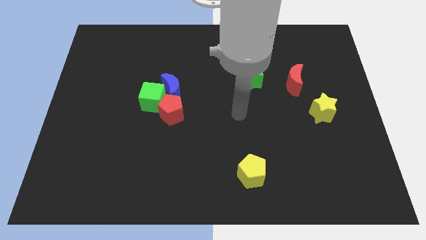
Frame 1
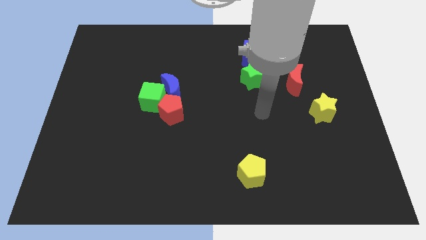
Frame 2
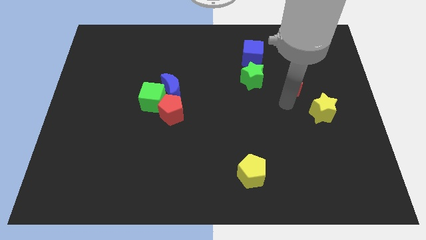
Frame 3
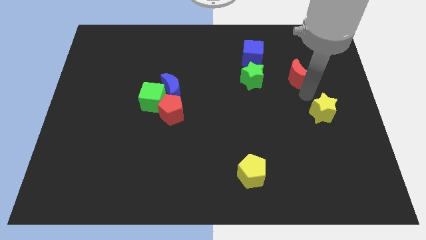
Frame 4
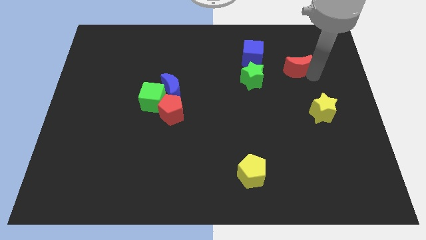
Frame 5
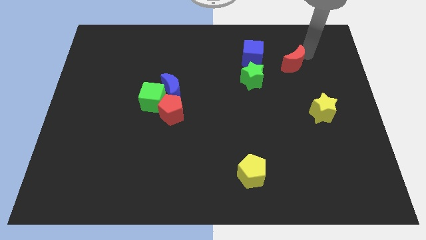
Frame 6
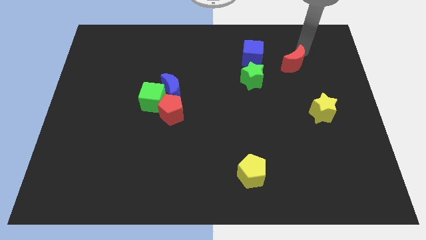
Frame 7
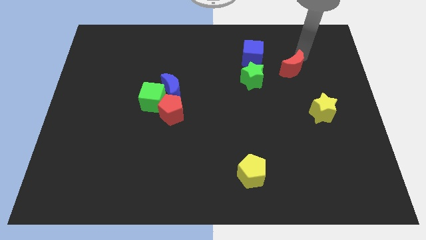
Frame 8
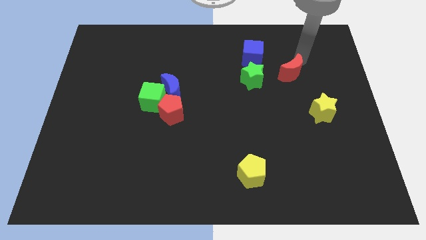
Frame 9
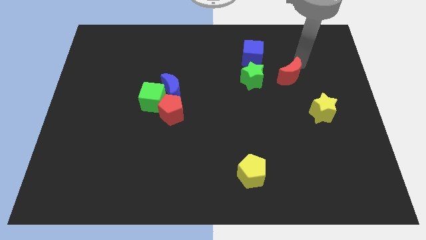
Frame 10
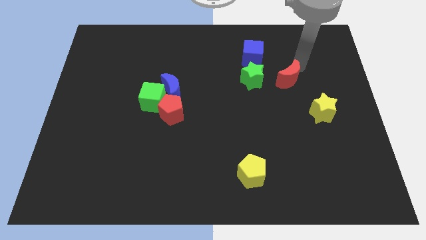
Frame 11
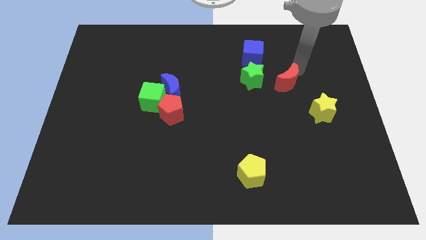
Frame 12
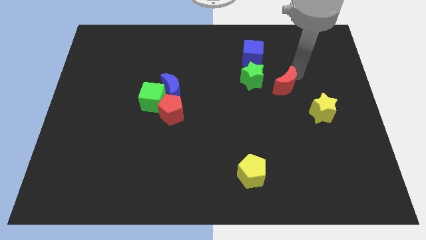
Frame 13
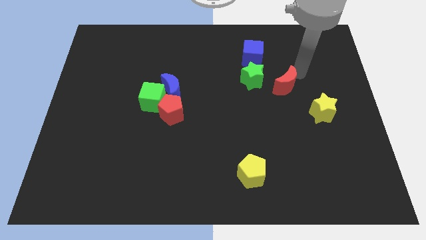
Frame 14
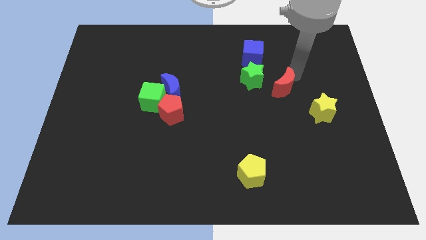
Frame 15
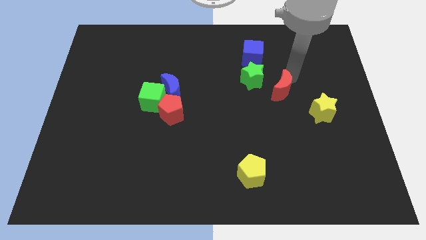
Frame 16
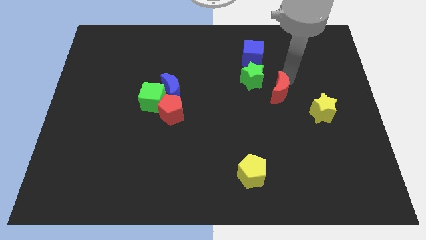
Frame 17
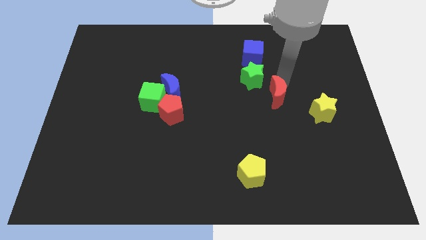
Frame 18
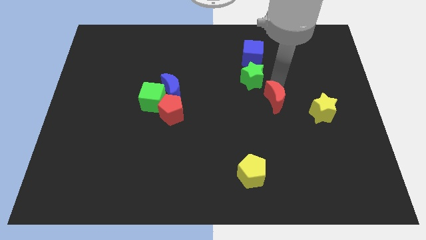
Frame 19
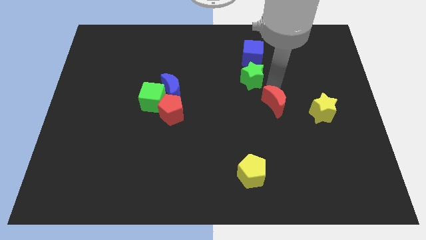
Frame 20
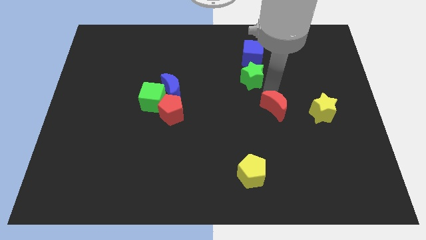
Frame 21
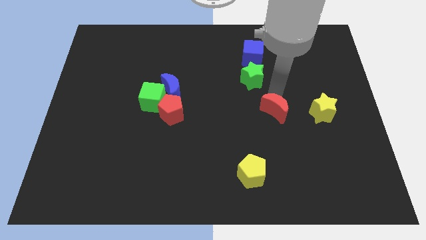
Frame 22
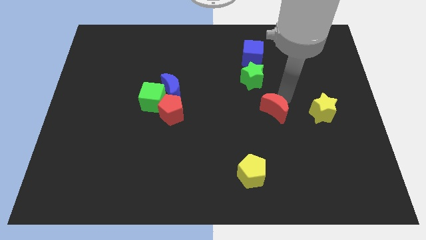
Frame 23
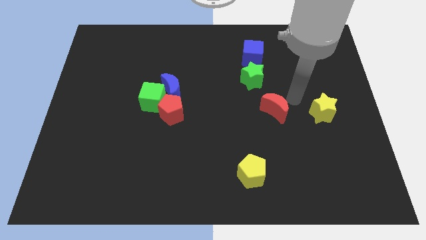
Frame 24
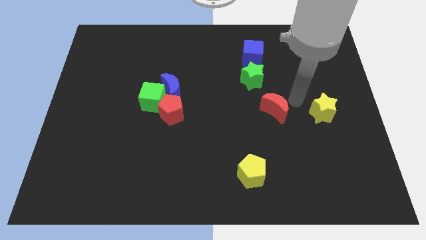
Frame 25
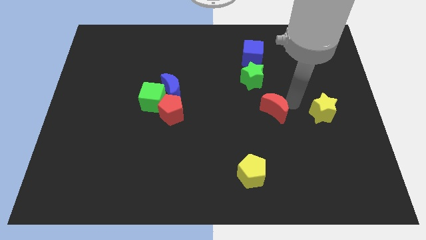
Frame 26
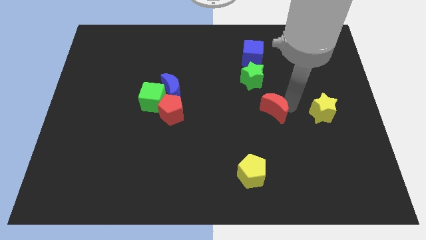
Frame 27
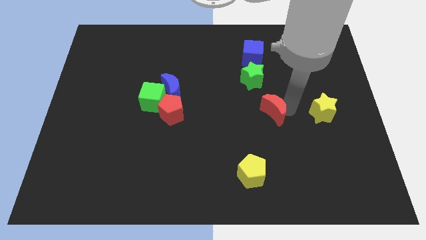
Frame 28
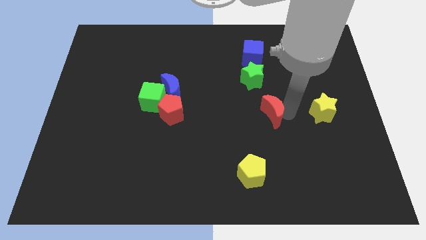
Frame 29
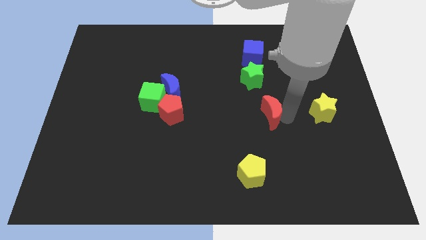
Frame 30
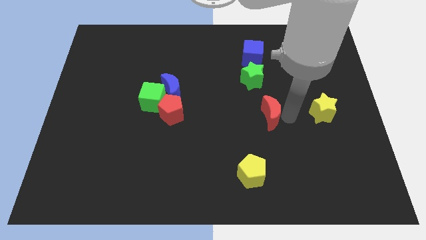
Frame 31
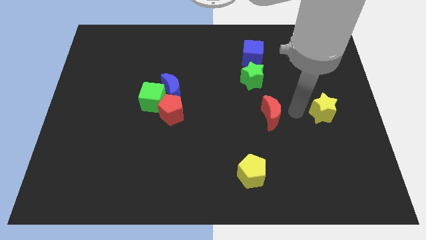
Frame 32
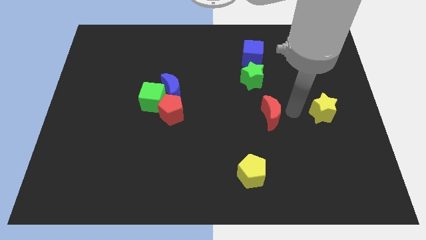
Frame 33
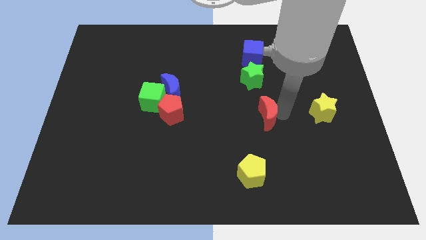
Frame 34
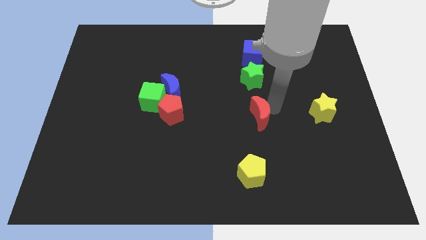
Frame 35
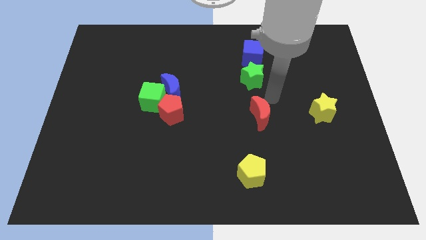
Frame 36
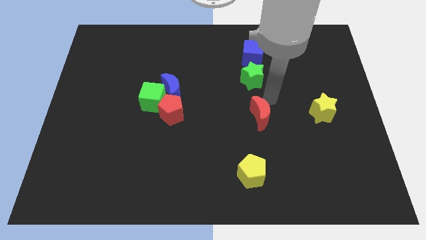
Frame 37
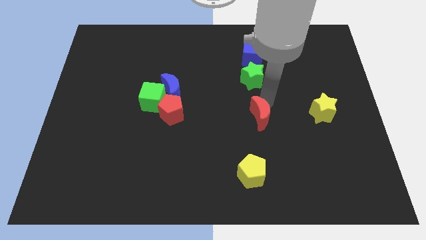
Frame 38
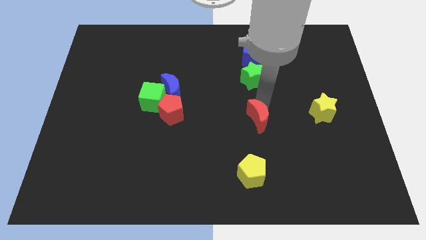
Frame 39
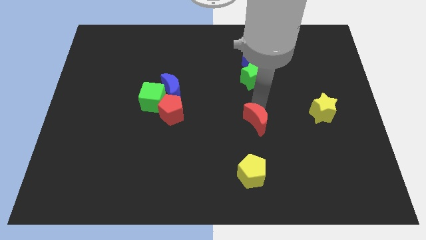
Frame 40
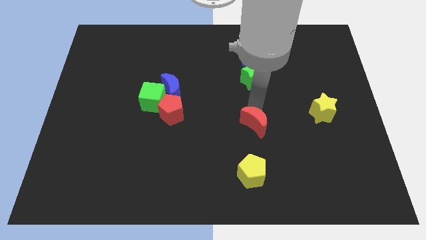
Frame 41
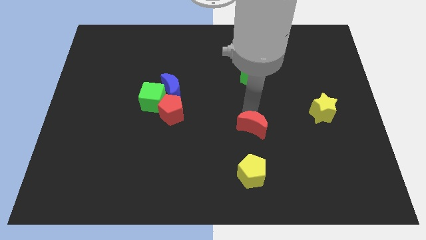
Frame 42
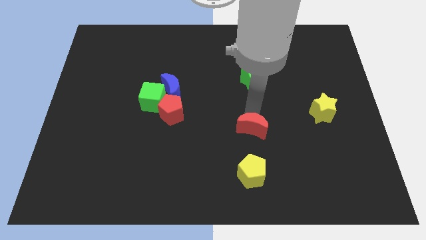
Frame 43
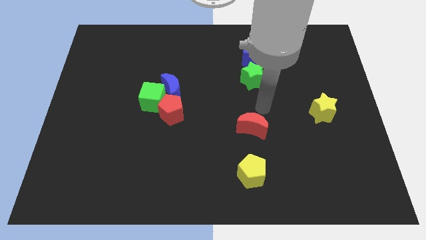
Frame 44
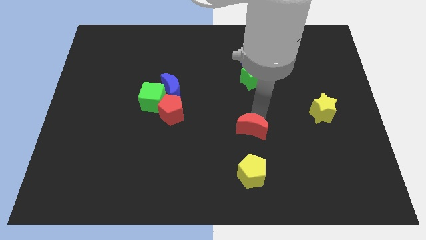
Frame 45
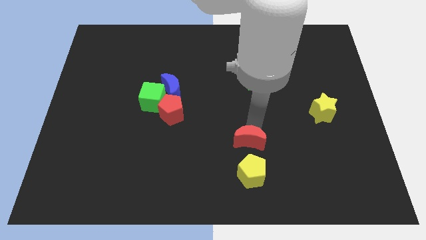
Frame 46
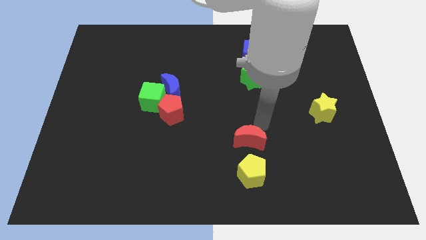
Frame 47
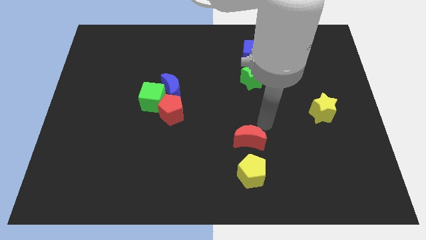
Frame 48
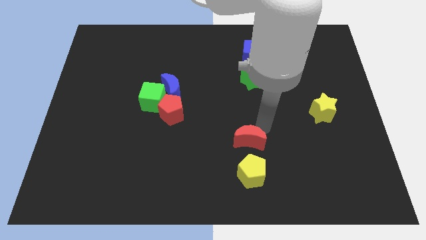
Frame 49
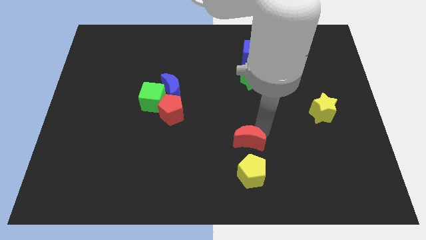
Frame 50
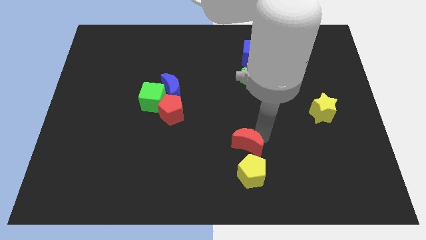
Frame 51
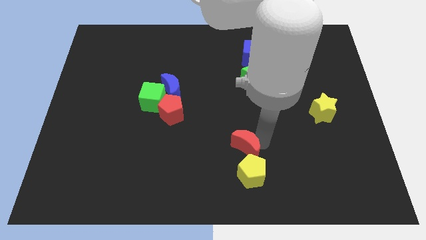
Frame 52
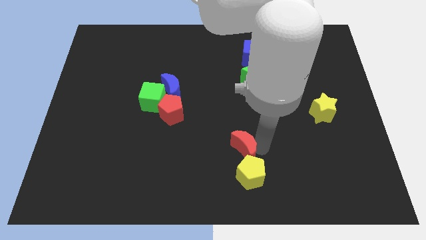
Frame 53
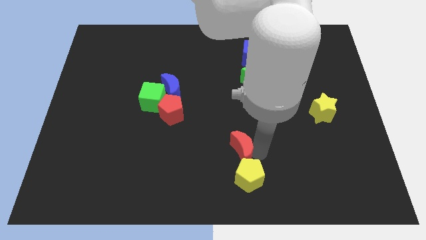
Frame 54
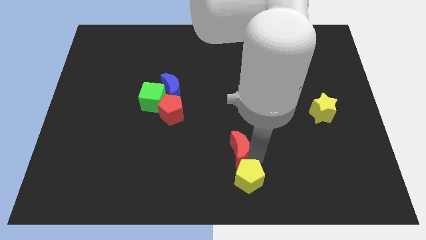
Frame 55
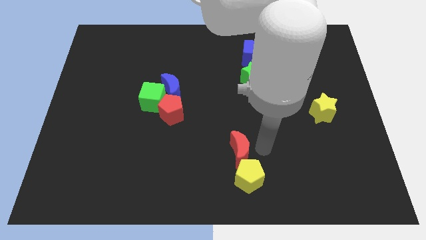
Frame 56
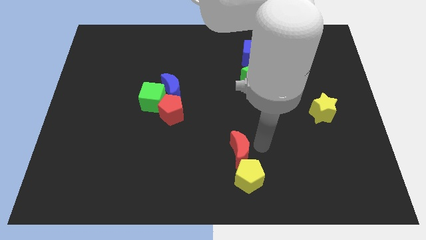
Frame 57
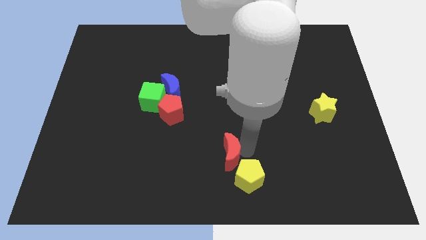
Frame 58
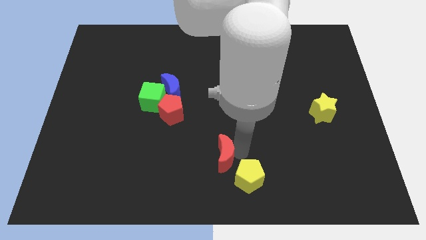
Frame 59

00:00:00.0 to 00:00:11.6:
put the red moon to the left side of the yellow pentagon

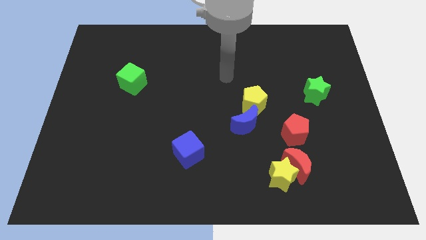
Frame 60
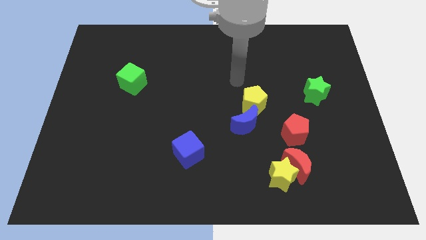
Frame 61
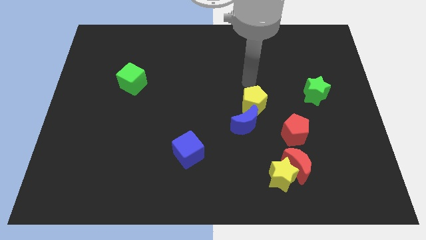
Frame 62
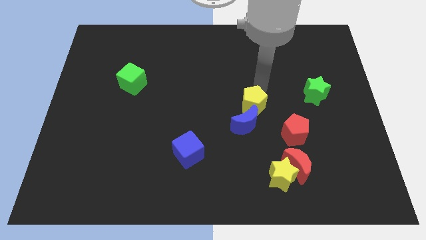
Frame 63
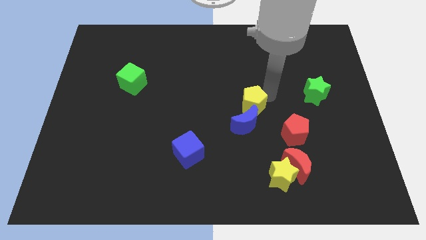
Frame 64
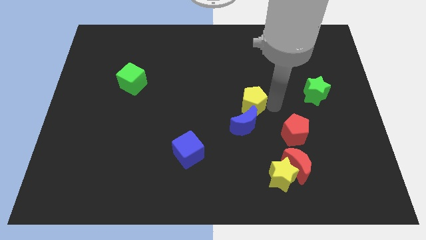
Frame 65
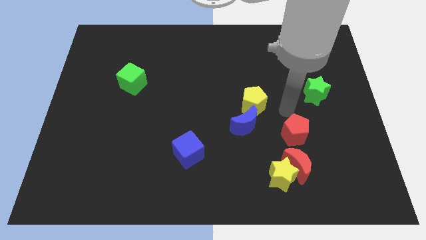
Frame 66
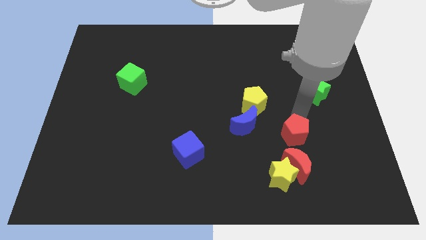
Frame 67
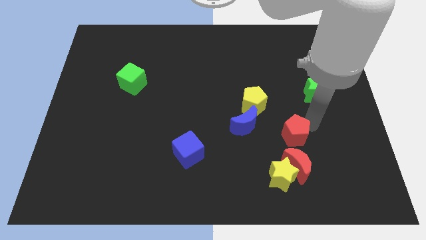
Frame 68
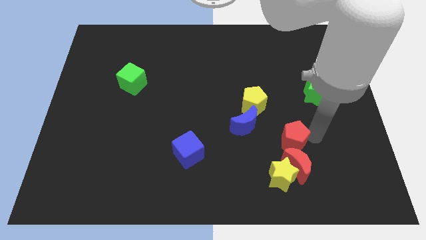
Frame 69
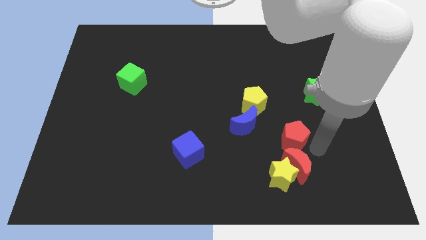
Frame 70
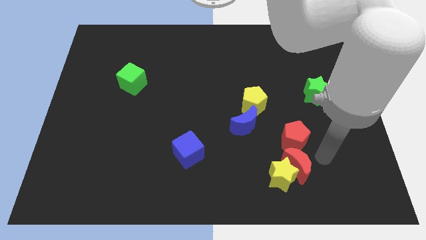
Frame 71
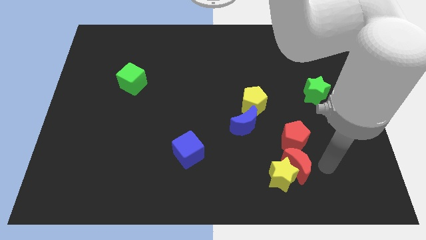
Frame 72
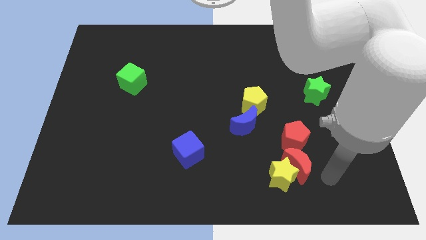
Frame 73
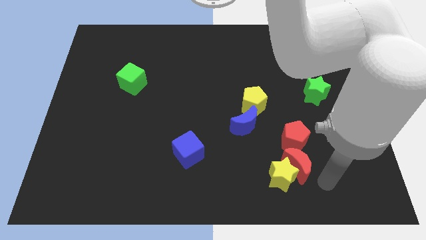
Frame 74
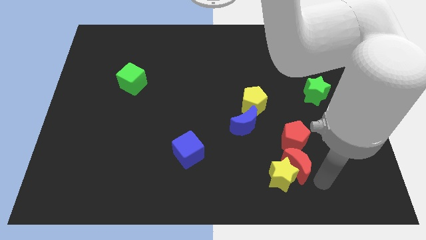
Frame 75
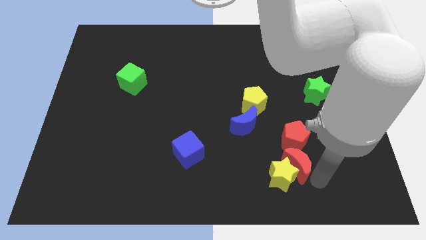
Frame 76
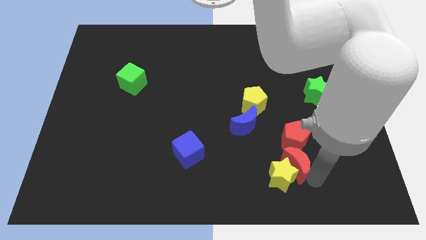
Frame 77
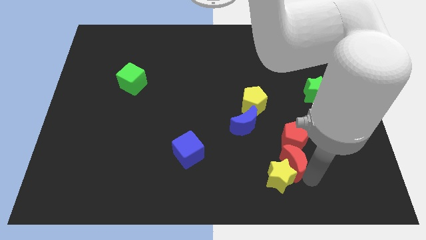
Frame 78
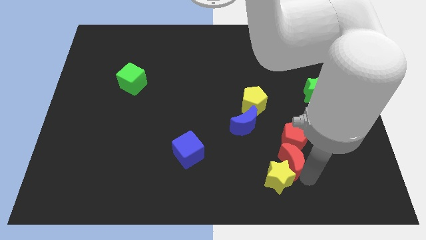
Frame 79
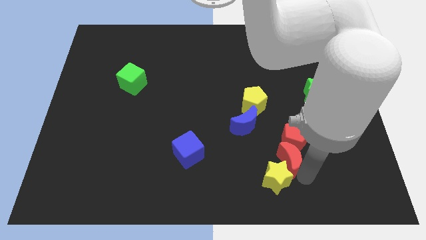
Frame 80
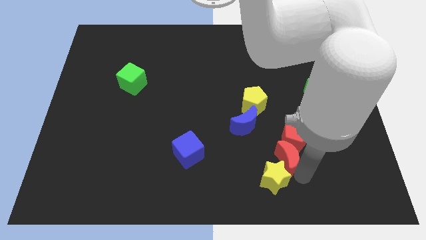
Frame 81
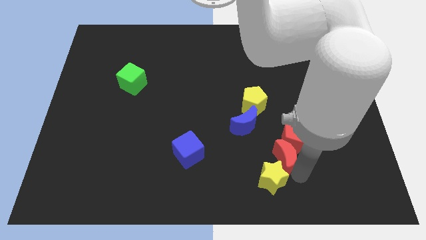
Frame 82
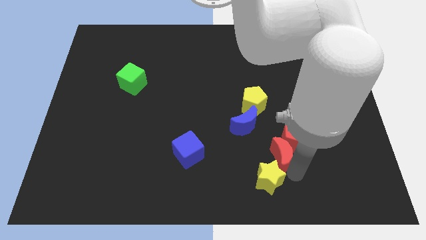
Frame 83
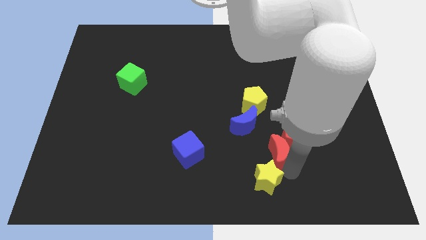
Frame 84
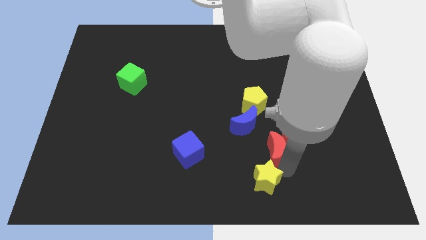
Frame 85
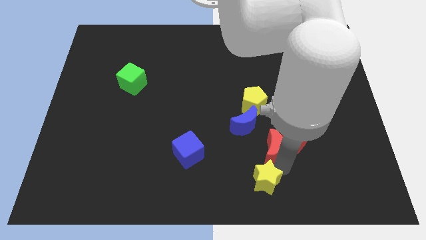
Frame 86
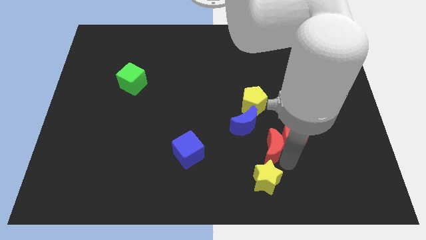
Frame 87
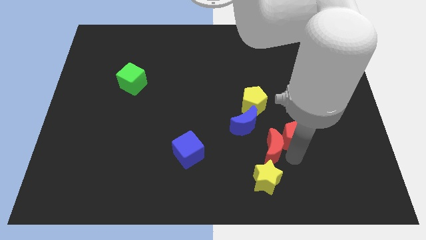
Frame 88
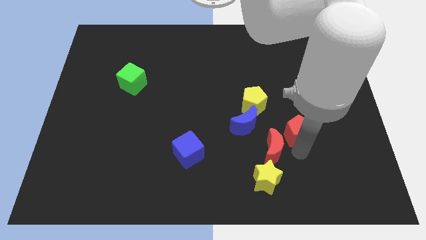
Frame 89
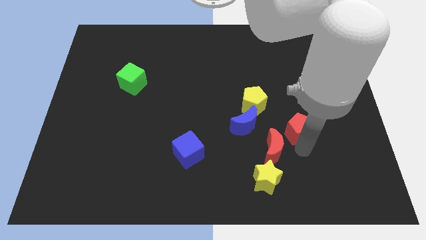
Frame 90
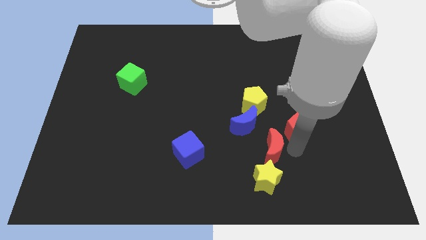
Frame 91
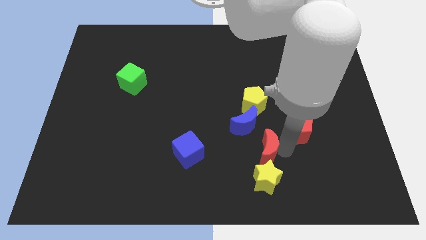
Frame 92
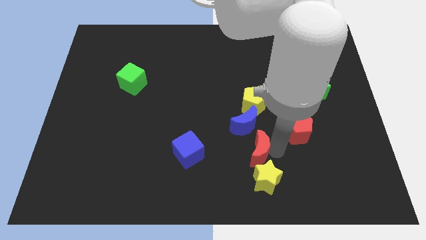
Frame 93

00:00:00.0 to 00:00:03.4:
push the red moon to the right of the blue cube
